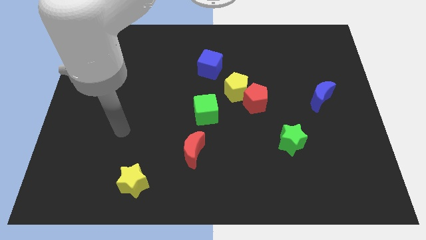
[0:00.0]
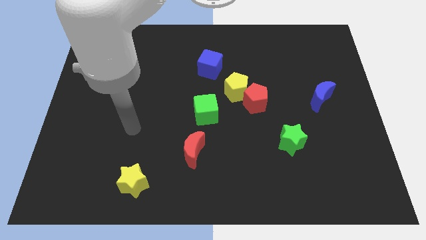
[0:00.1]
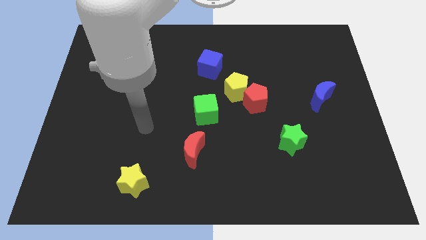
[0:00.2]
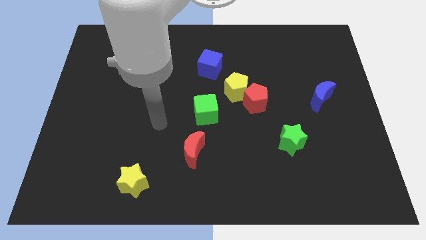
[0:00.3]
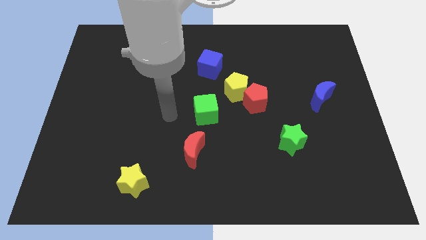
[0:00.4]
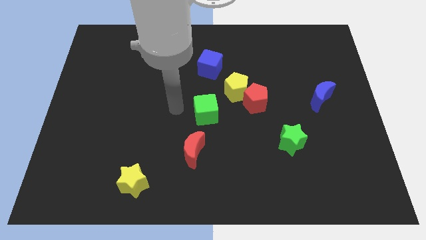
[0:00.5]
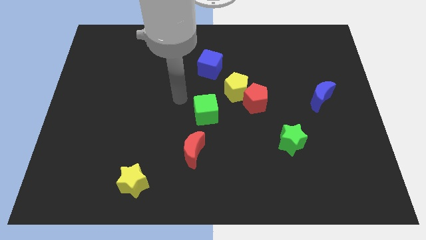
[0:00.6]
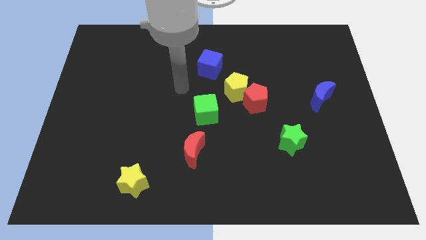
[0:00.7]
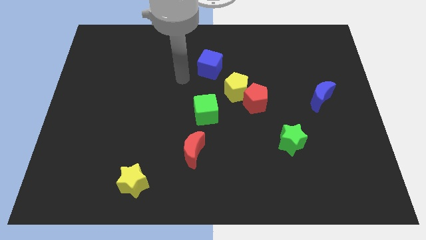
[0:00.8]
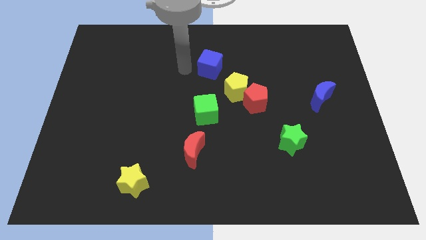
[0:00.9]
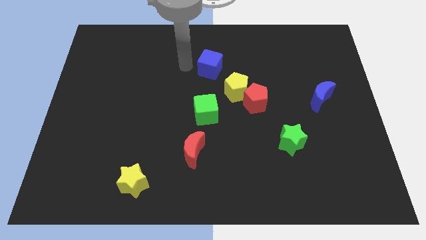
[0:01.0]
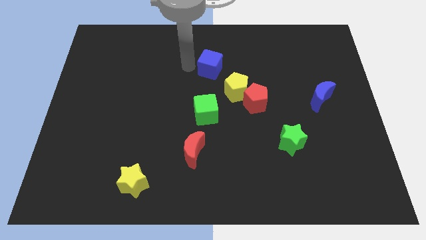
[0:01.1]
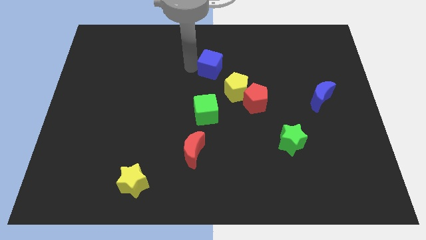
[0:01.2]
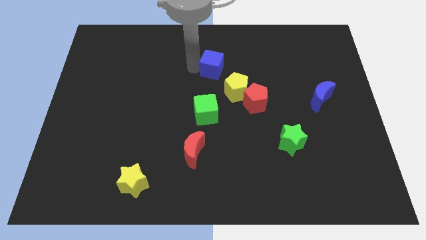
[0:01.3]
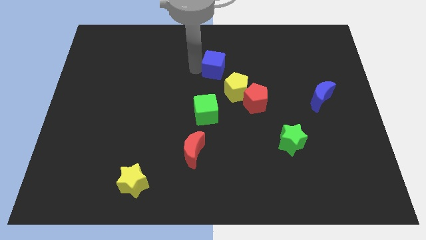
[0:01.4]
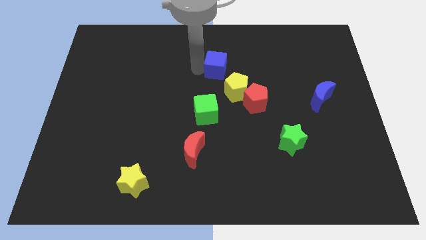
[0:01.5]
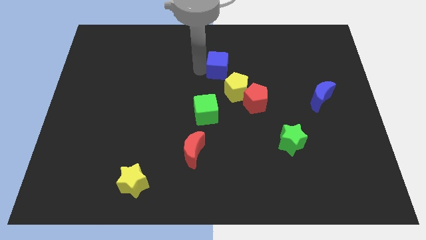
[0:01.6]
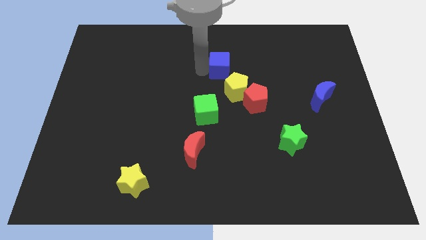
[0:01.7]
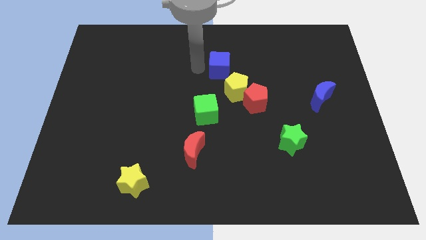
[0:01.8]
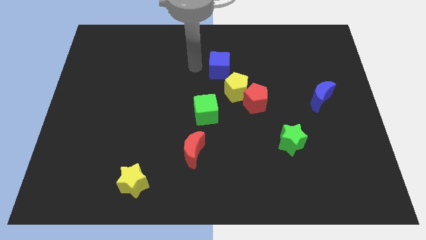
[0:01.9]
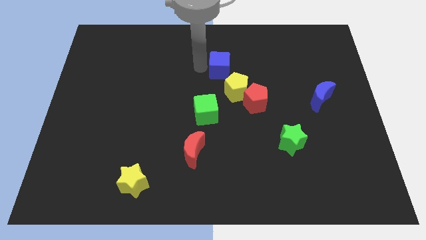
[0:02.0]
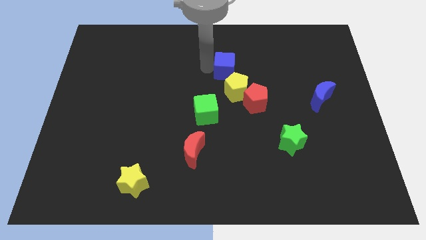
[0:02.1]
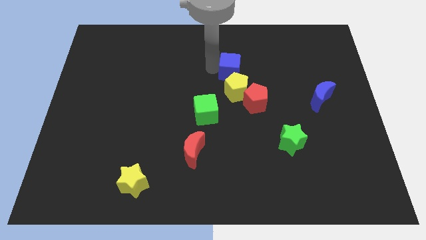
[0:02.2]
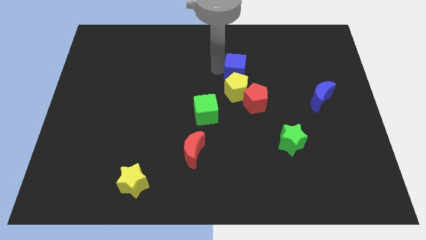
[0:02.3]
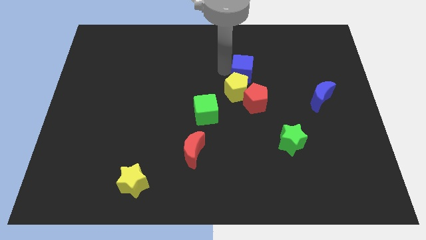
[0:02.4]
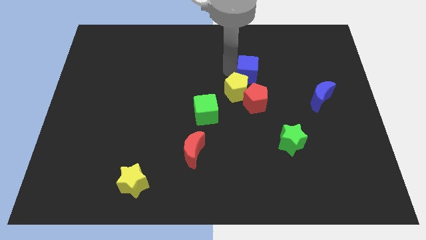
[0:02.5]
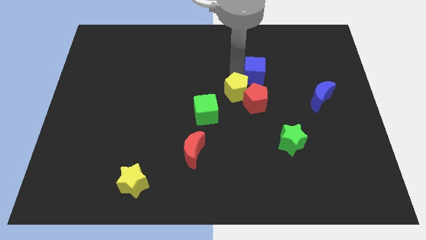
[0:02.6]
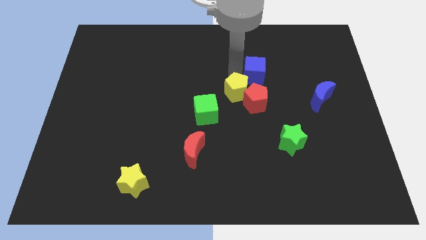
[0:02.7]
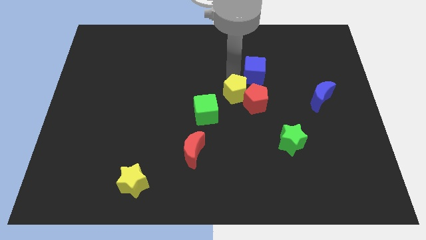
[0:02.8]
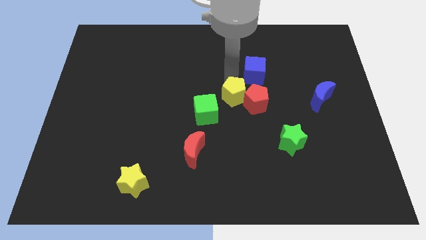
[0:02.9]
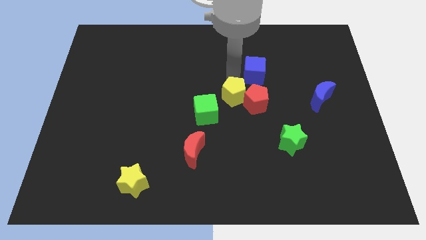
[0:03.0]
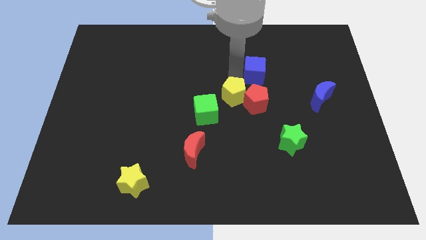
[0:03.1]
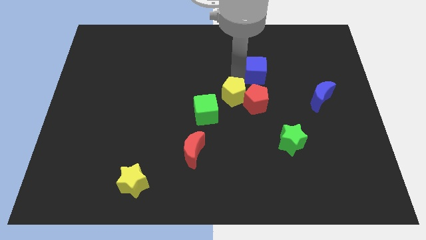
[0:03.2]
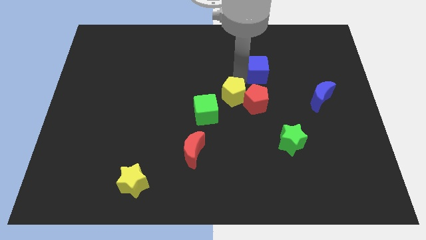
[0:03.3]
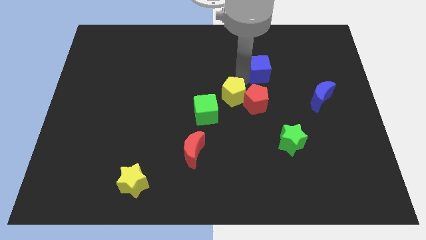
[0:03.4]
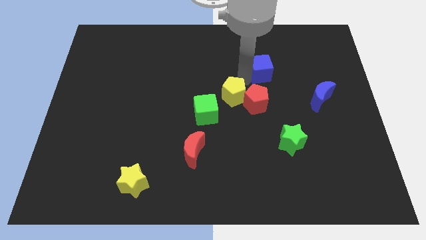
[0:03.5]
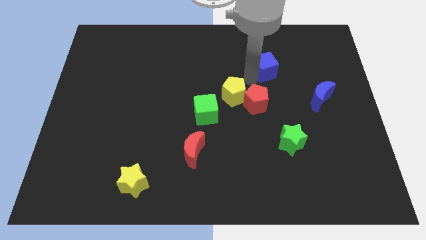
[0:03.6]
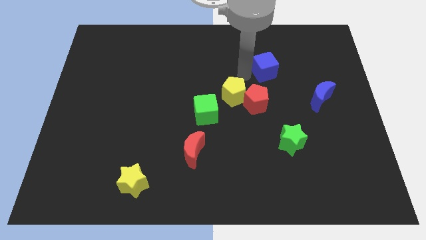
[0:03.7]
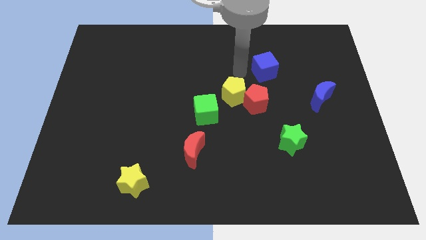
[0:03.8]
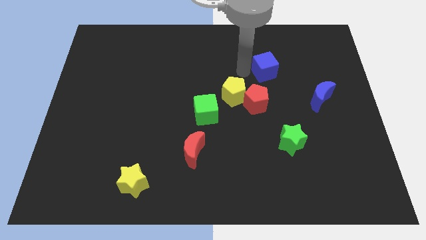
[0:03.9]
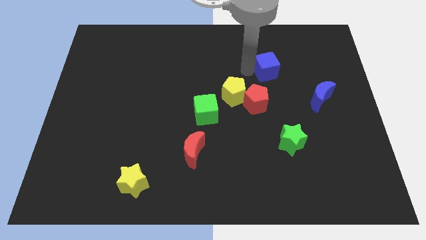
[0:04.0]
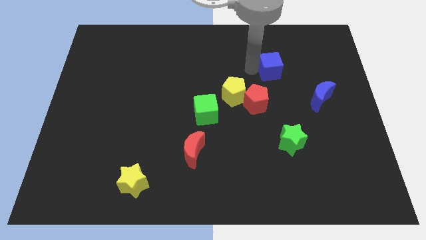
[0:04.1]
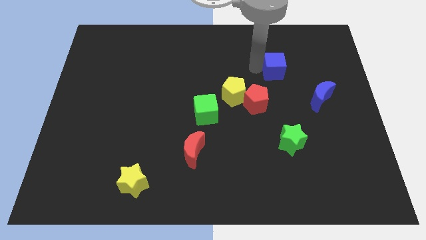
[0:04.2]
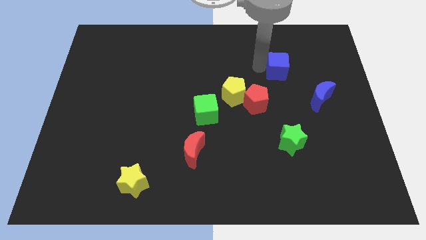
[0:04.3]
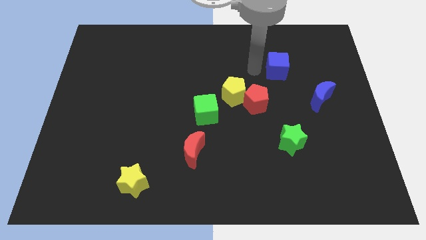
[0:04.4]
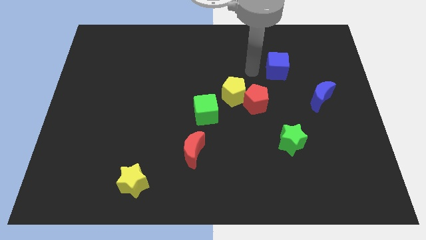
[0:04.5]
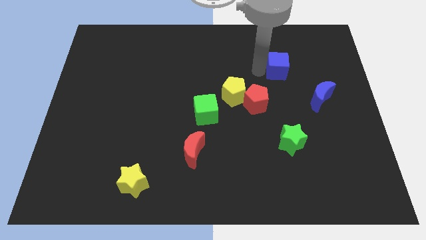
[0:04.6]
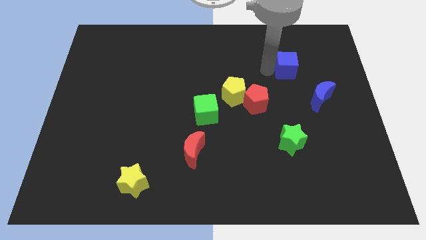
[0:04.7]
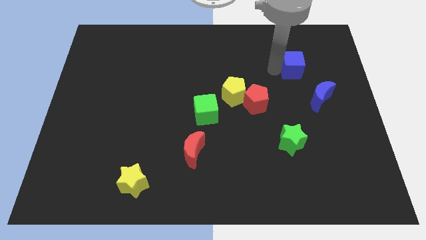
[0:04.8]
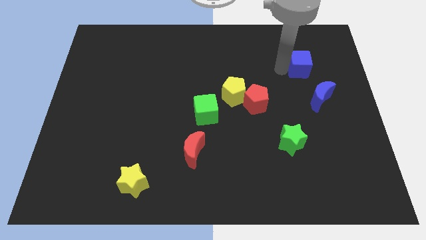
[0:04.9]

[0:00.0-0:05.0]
slide the blue cube above the blue moon

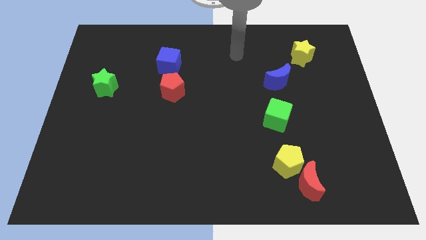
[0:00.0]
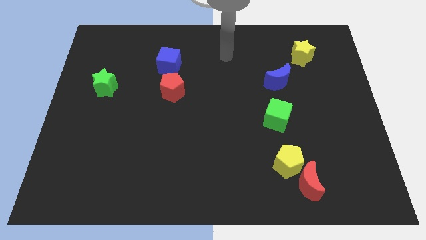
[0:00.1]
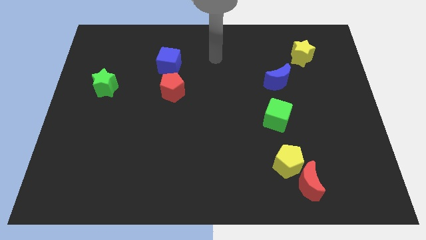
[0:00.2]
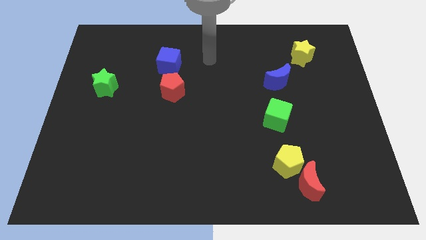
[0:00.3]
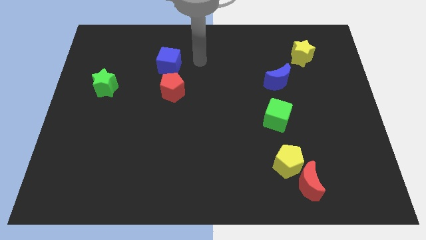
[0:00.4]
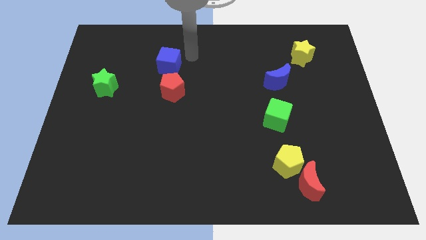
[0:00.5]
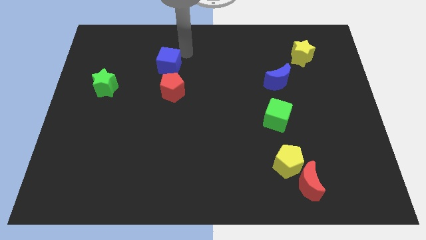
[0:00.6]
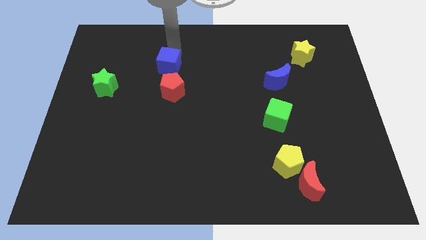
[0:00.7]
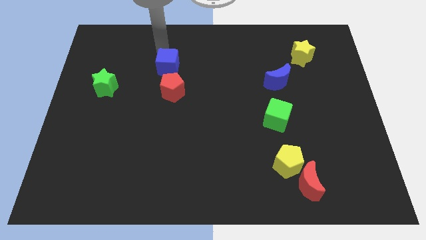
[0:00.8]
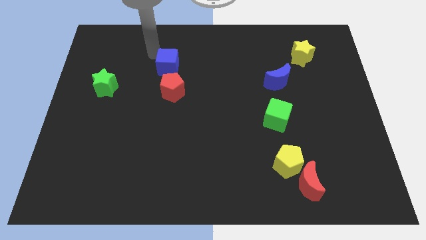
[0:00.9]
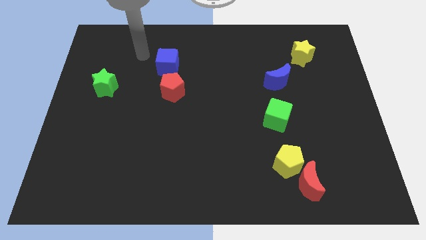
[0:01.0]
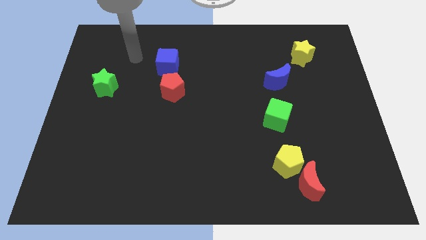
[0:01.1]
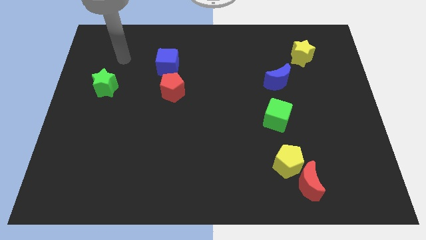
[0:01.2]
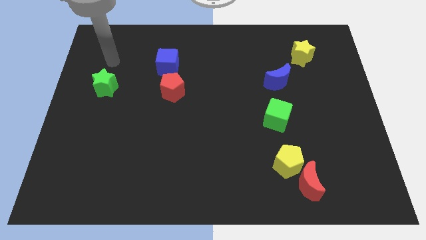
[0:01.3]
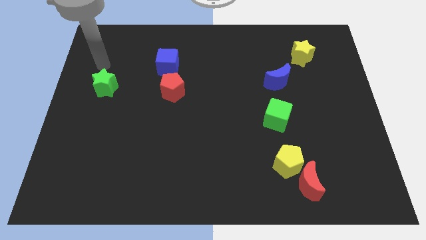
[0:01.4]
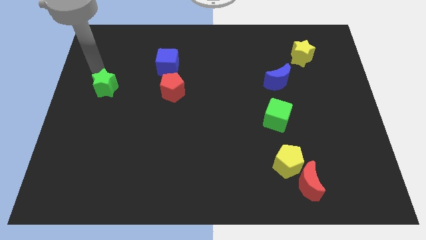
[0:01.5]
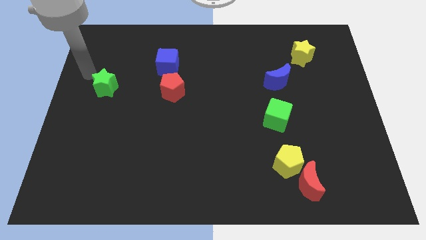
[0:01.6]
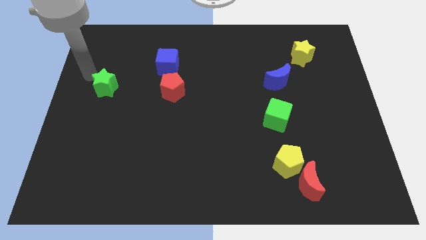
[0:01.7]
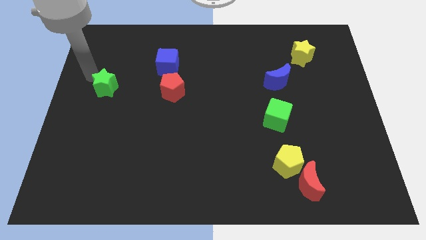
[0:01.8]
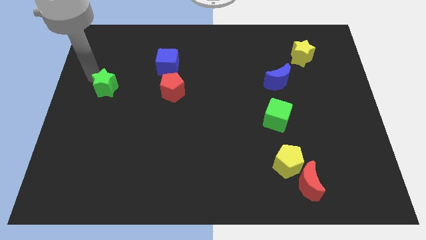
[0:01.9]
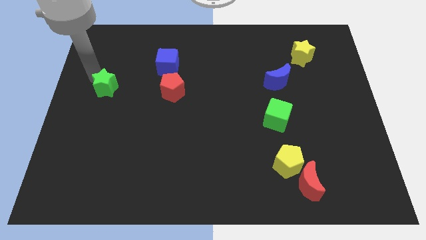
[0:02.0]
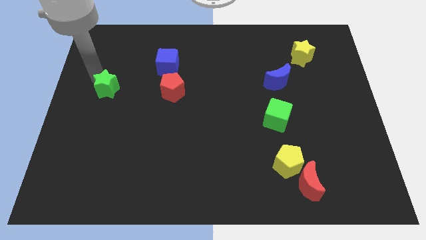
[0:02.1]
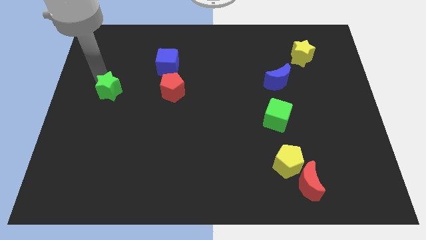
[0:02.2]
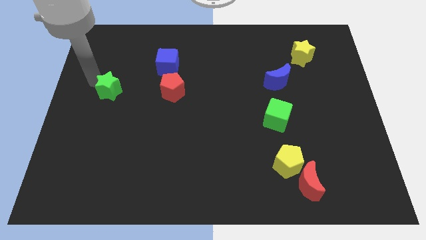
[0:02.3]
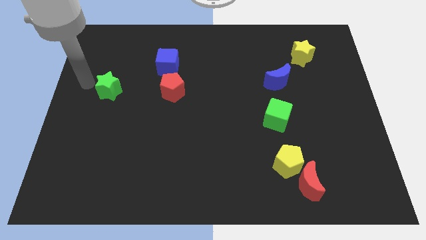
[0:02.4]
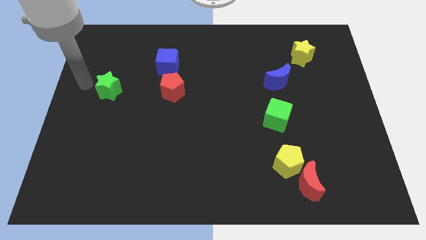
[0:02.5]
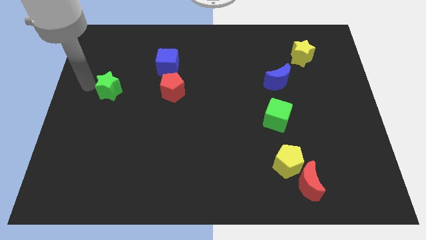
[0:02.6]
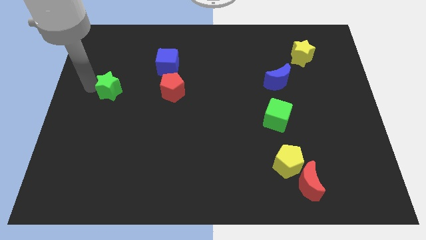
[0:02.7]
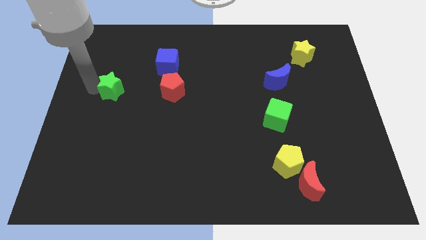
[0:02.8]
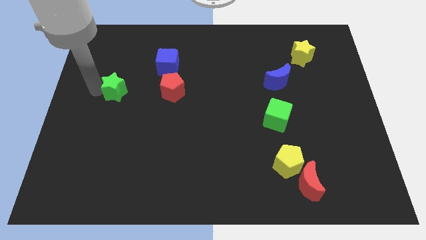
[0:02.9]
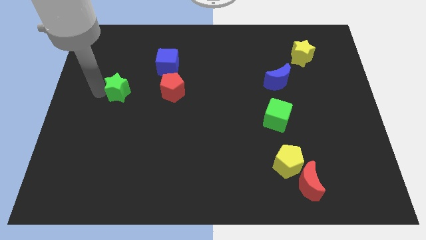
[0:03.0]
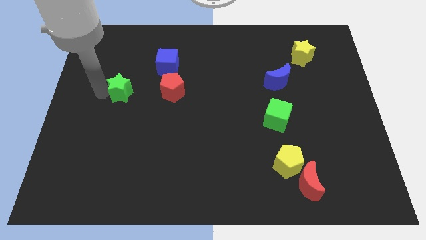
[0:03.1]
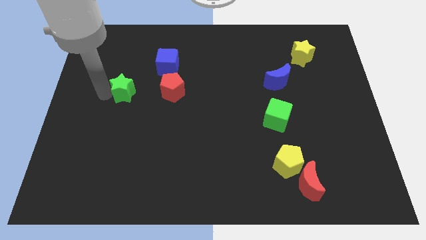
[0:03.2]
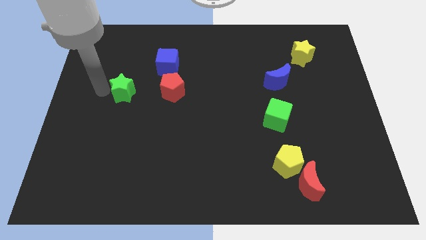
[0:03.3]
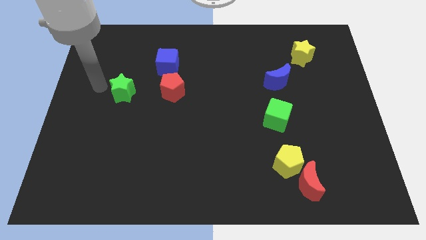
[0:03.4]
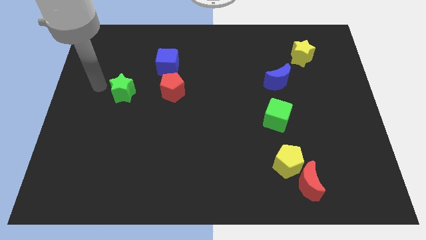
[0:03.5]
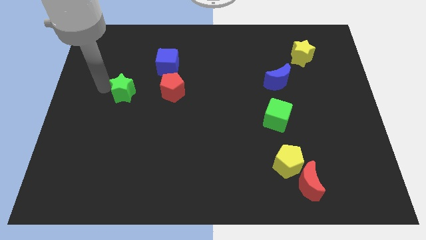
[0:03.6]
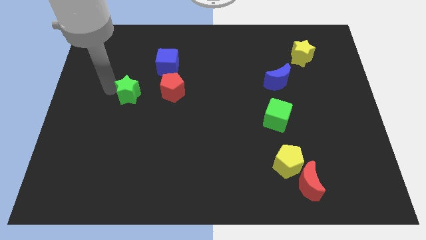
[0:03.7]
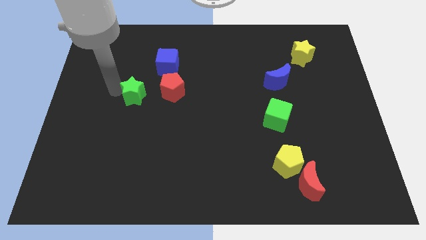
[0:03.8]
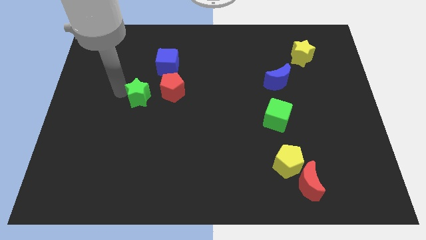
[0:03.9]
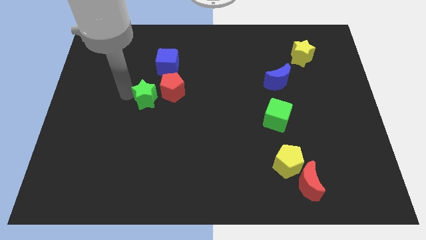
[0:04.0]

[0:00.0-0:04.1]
push the green star to the bottom of the blue cube
